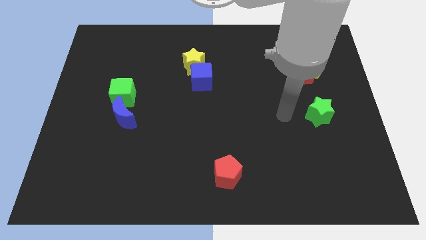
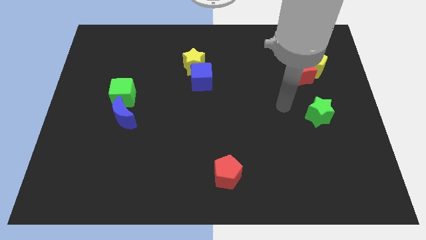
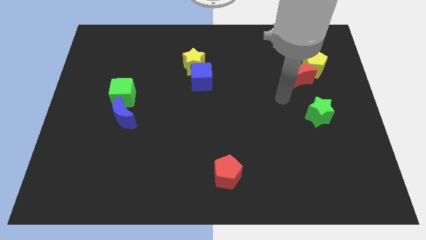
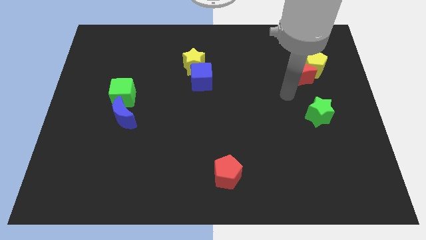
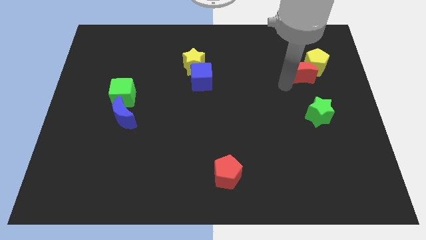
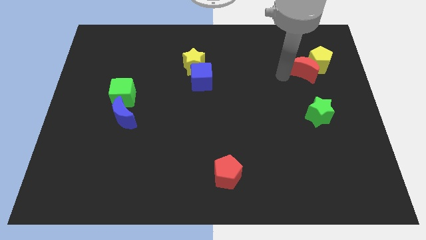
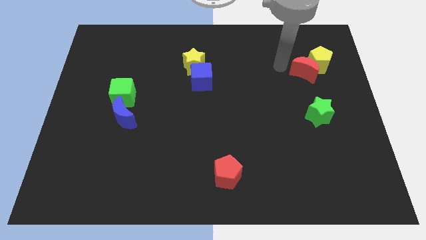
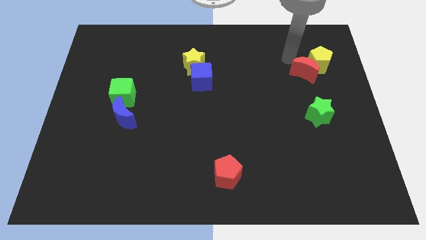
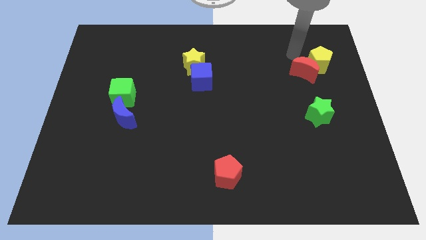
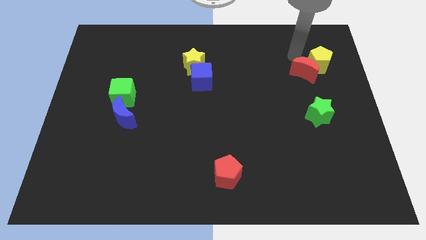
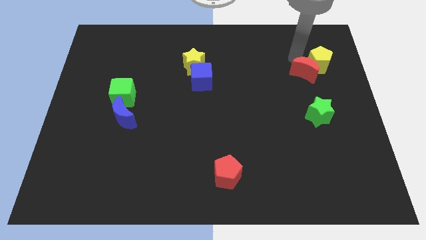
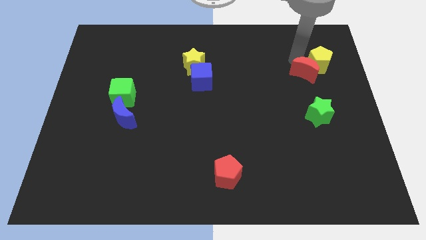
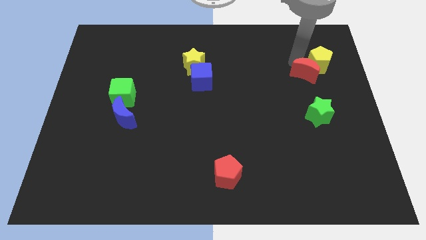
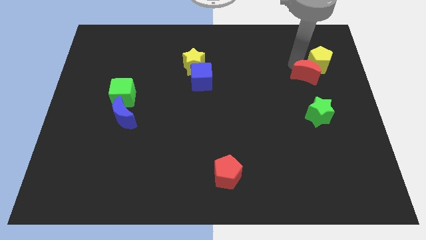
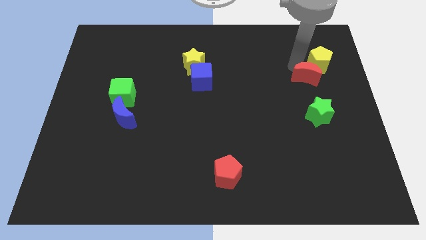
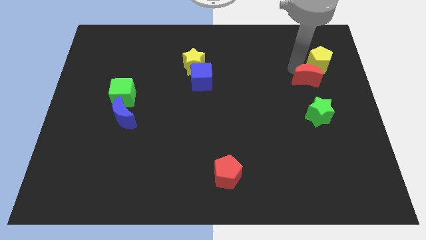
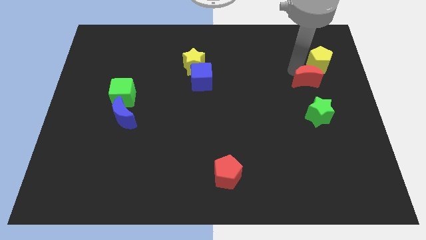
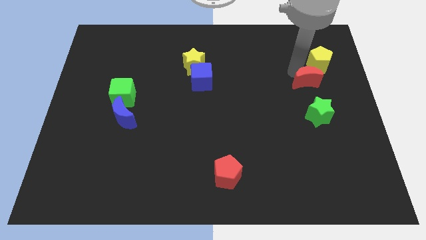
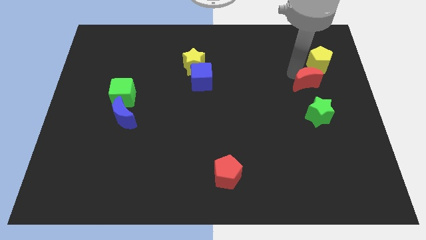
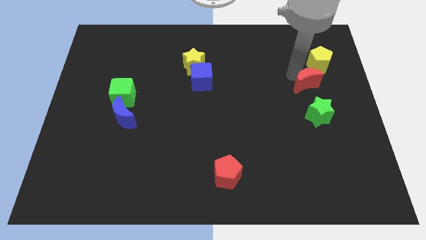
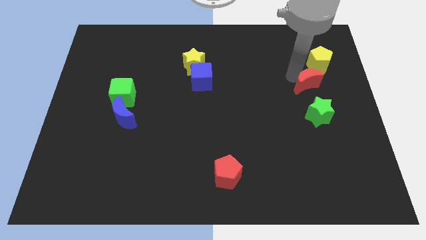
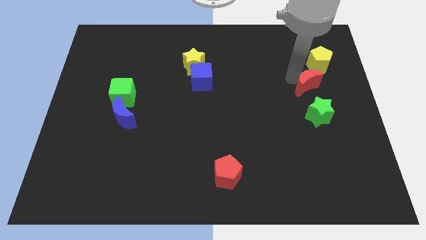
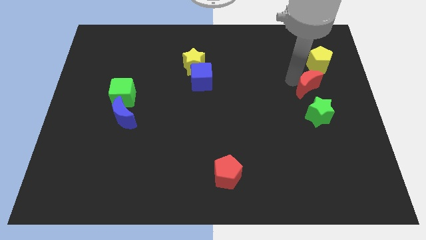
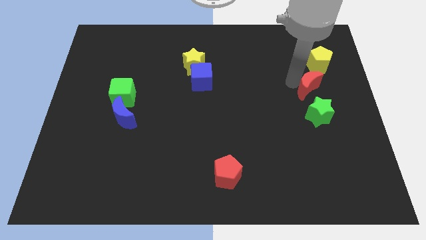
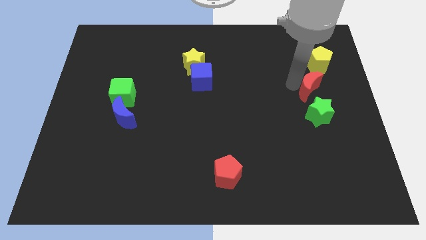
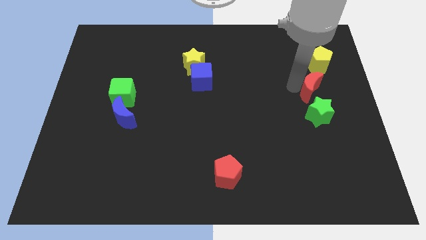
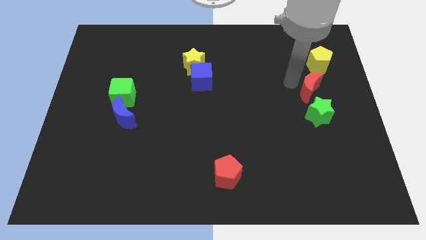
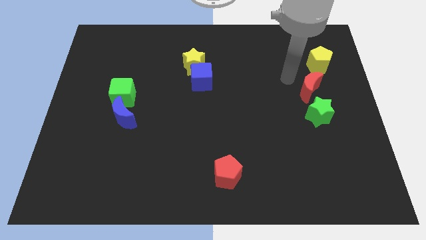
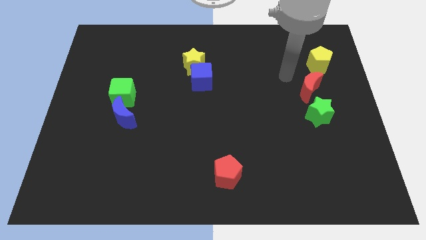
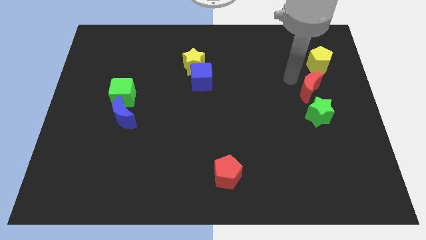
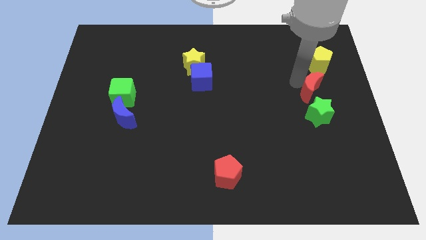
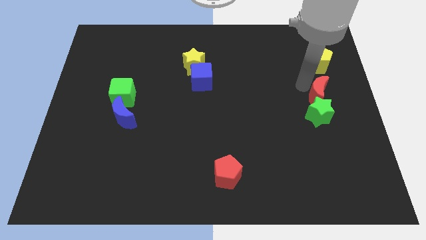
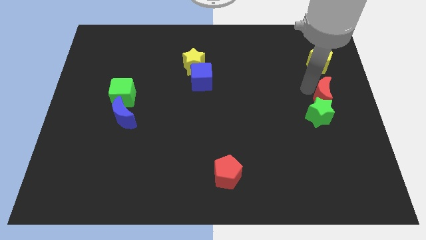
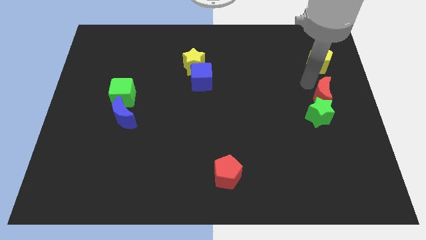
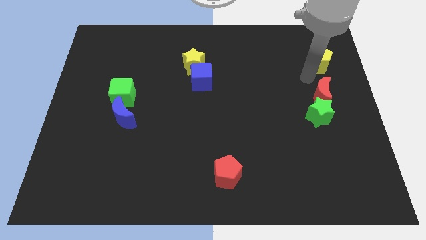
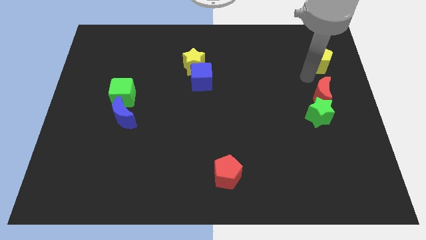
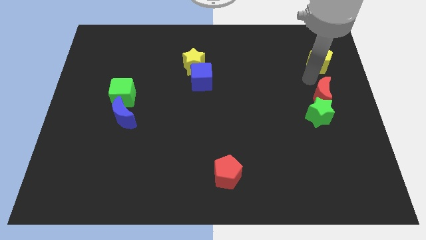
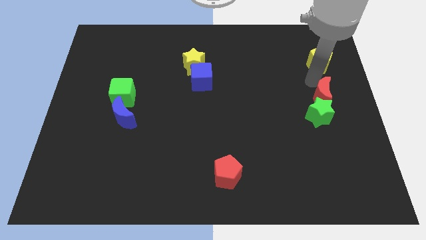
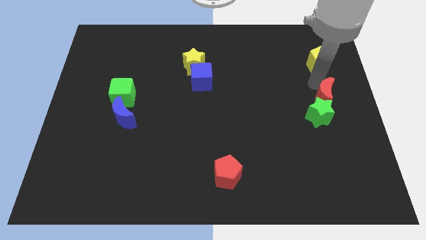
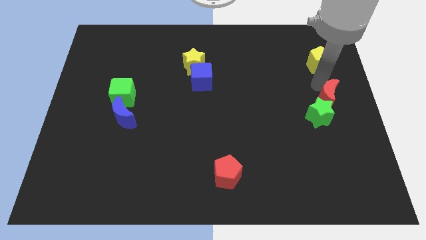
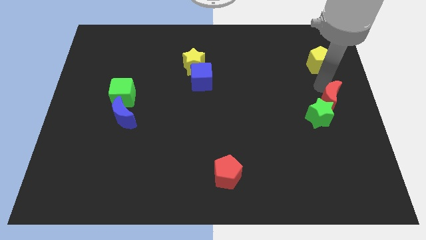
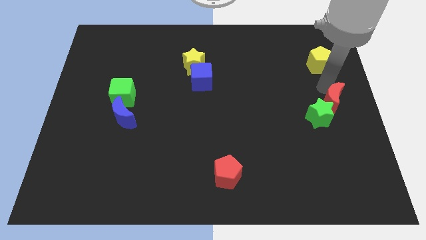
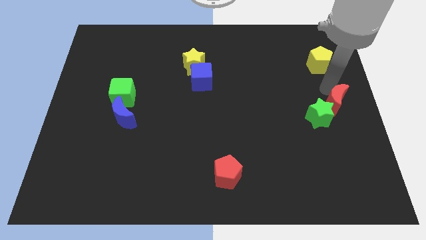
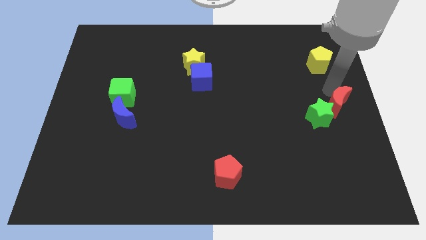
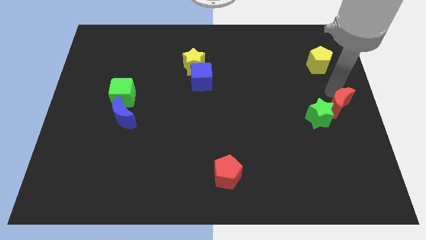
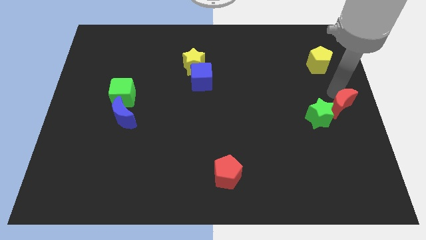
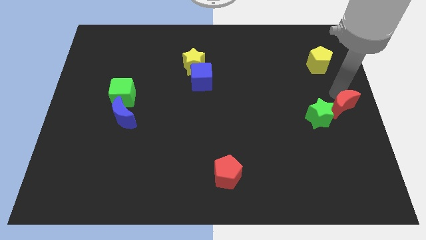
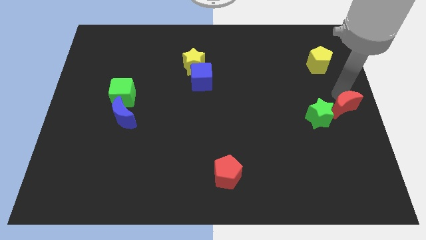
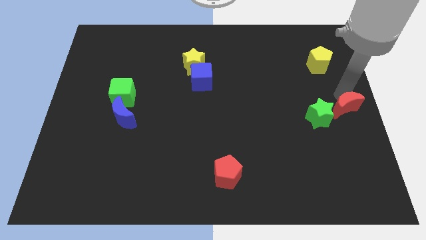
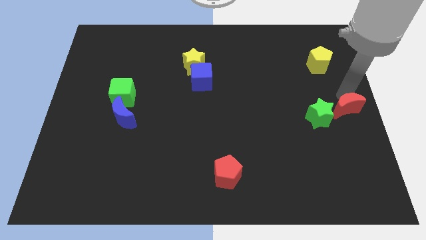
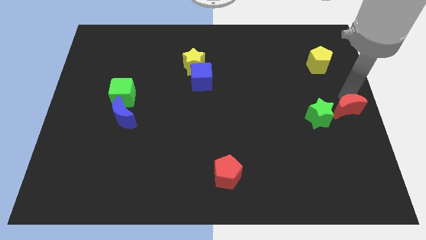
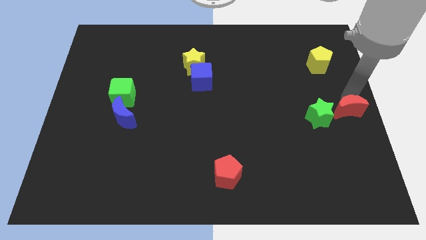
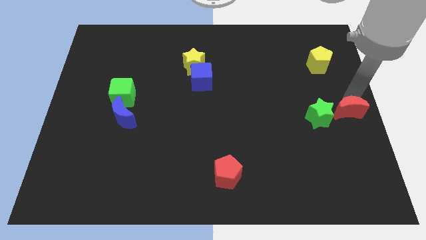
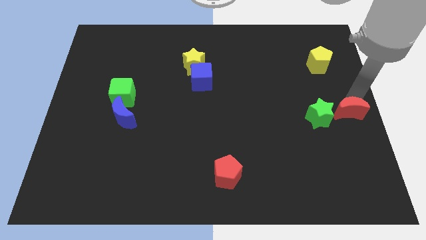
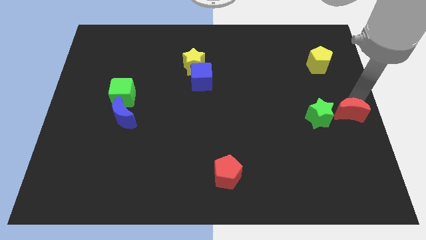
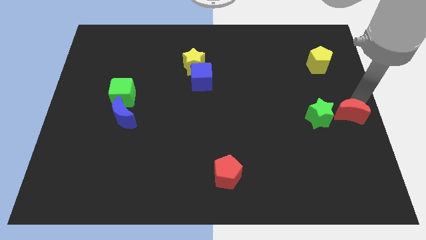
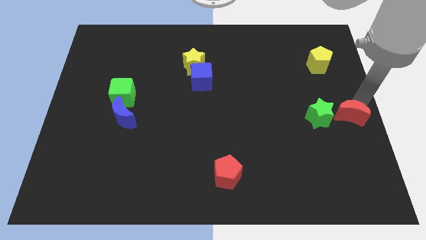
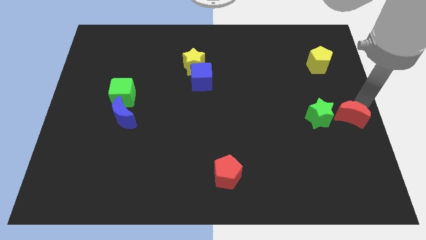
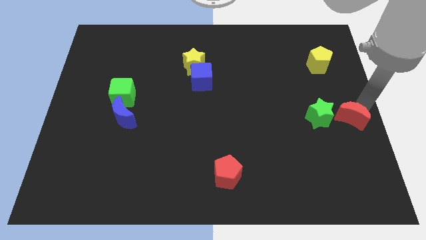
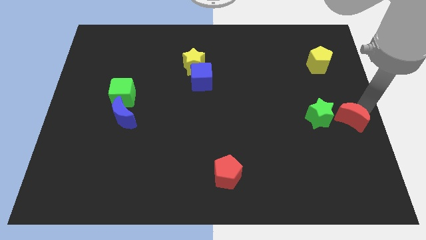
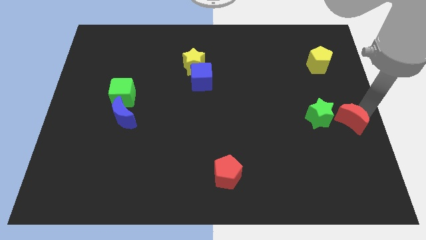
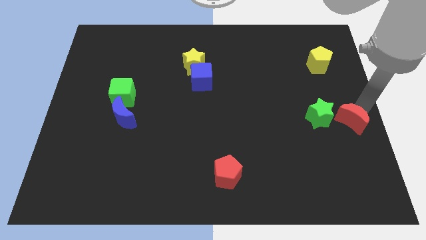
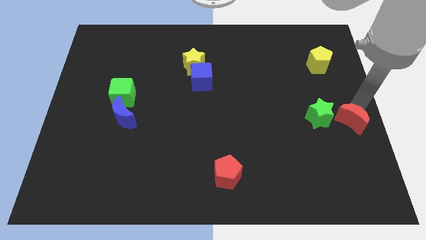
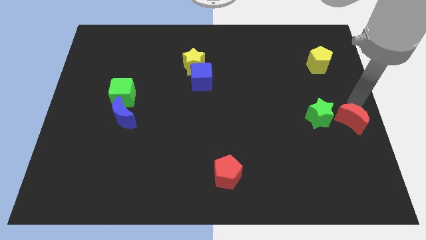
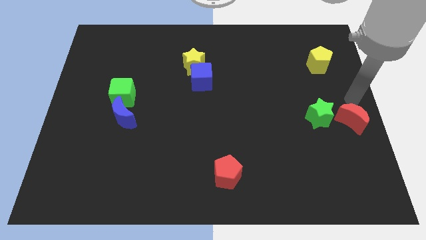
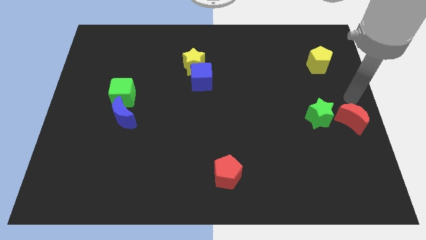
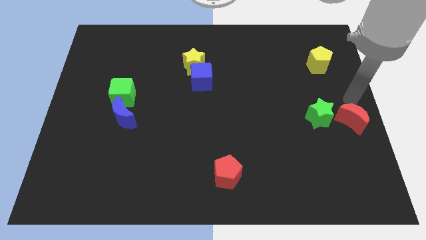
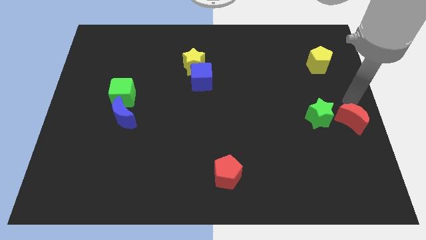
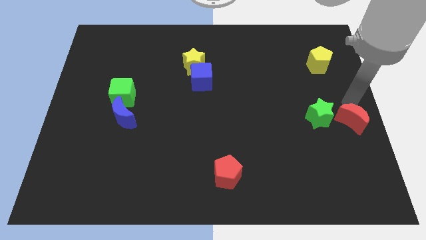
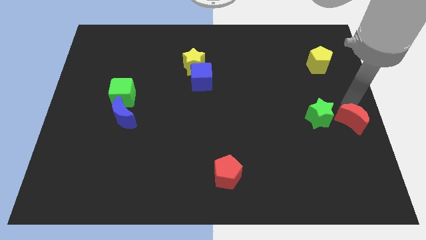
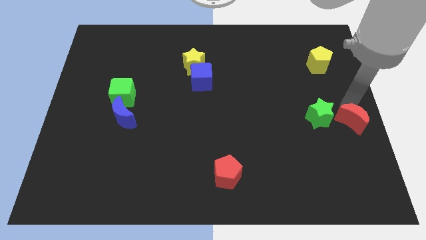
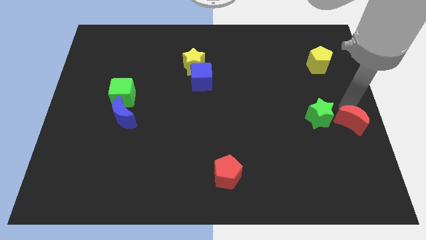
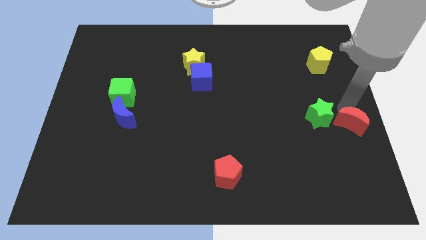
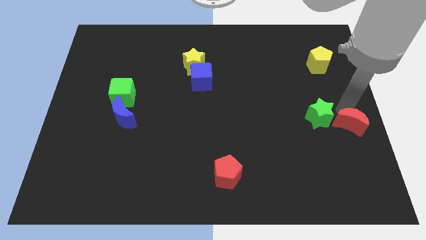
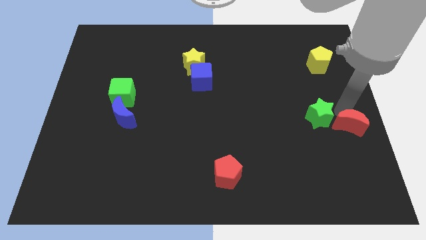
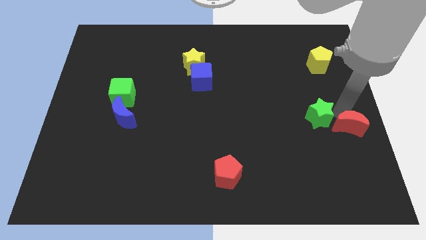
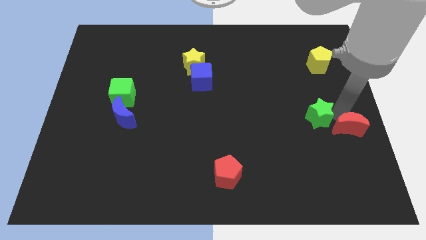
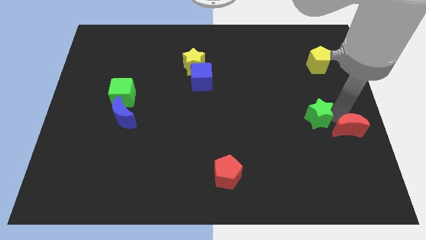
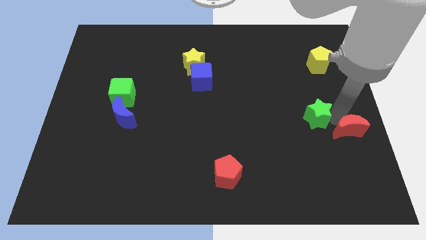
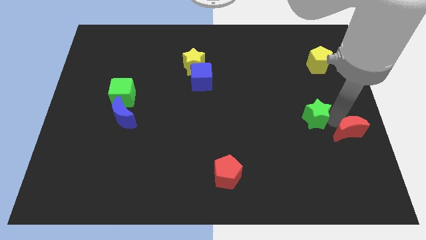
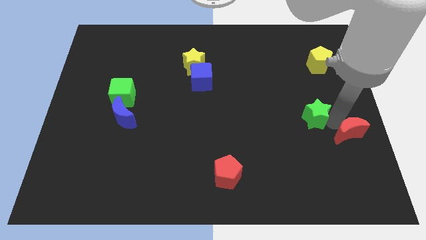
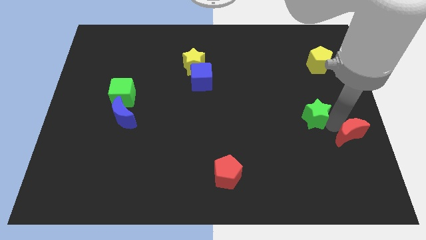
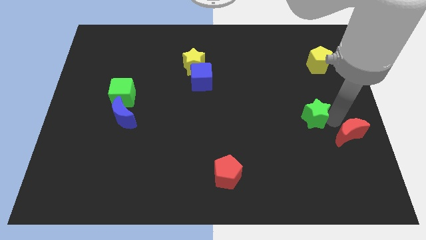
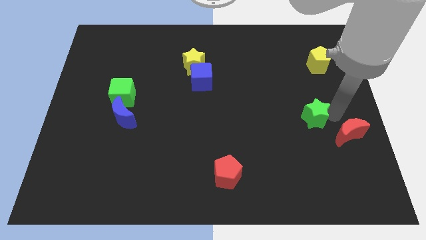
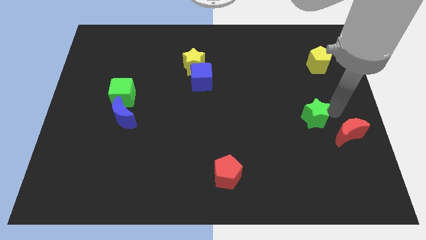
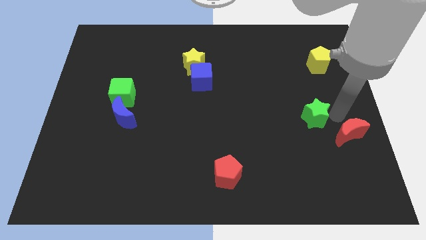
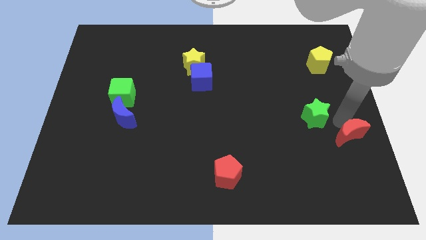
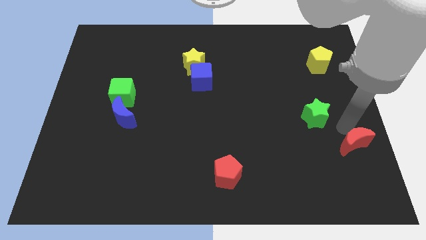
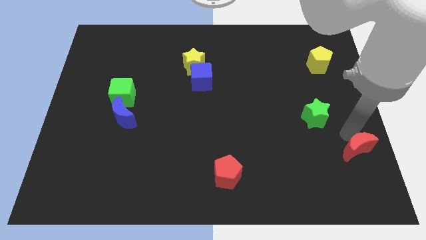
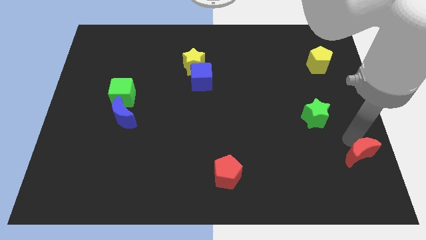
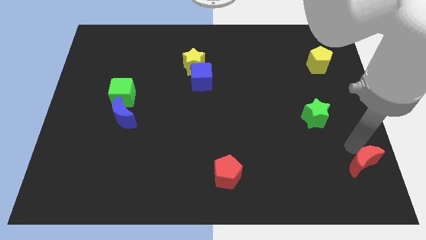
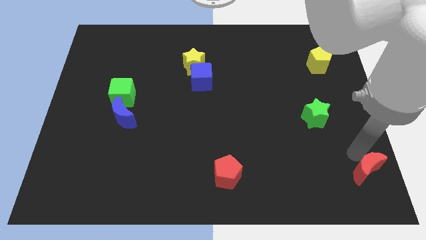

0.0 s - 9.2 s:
slide the red moon to the bottom right corner
